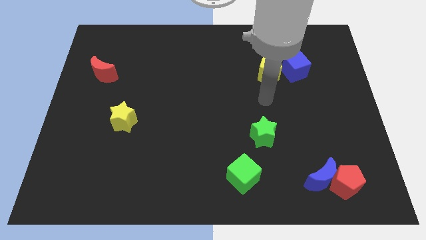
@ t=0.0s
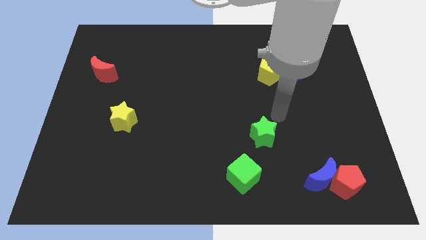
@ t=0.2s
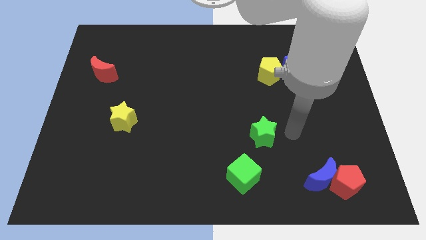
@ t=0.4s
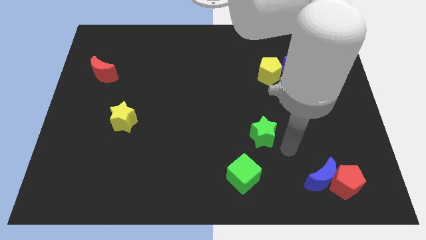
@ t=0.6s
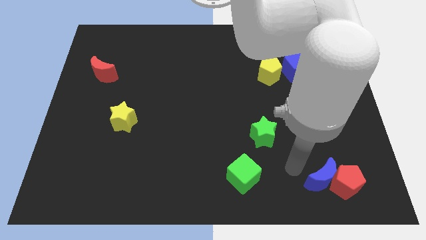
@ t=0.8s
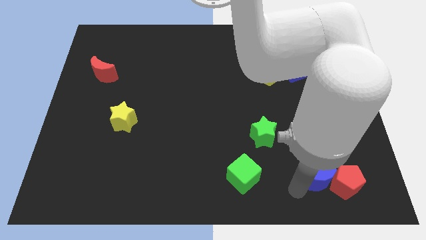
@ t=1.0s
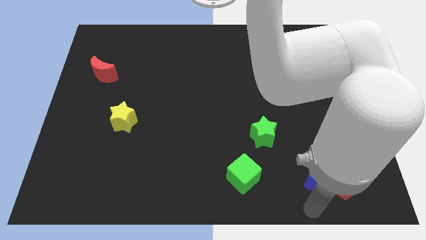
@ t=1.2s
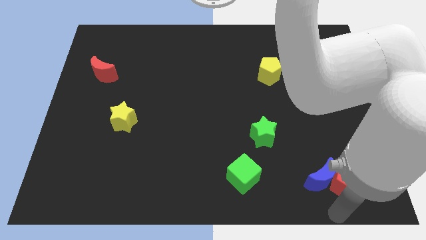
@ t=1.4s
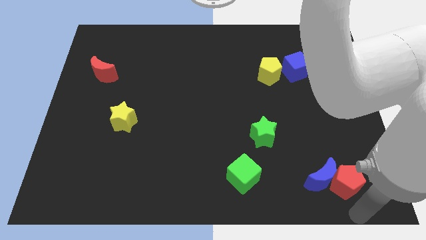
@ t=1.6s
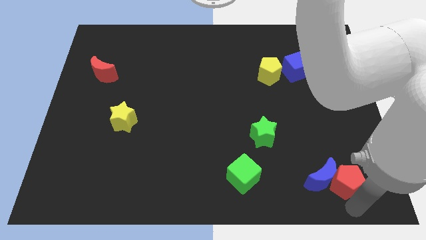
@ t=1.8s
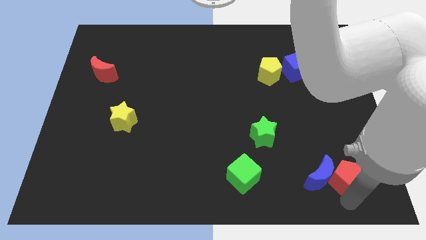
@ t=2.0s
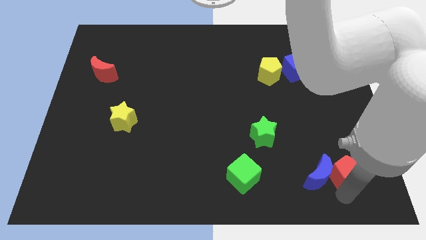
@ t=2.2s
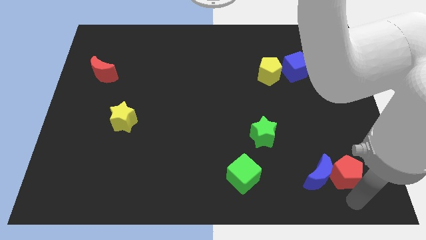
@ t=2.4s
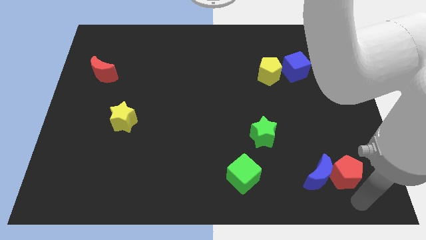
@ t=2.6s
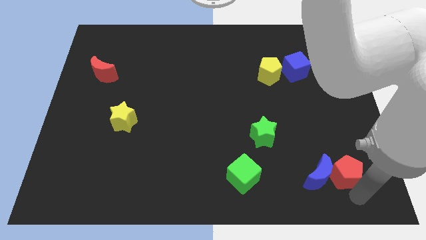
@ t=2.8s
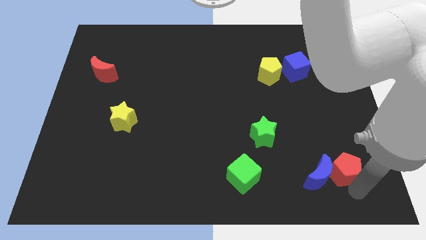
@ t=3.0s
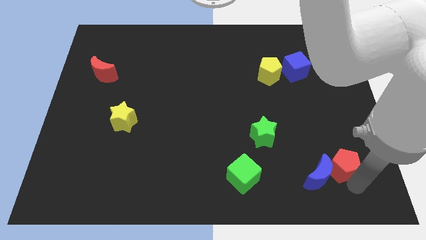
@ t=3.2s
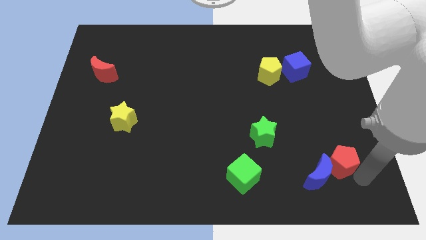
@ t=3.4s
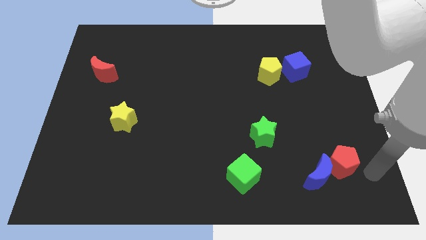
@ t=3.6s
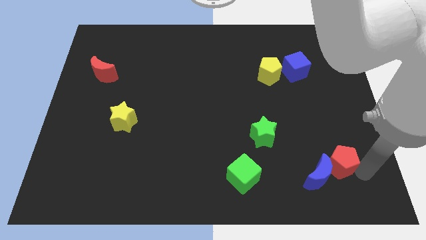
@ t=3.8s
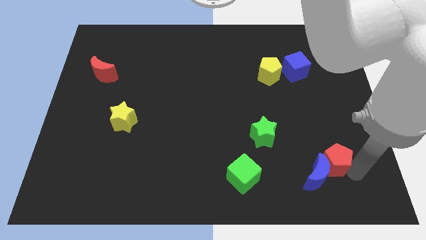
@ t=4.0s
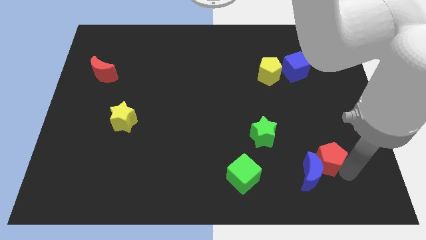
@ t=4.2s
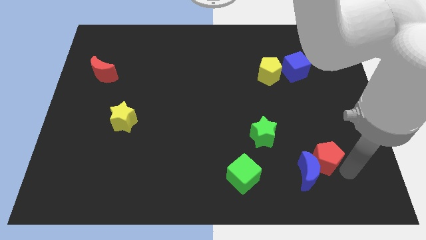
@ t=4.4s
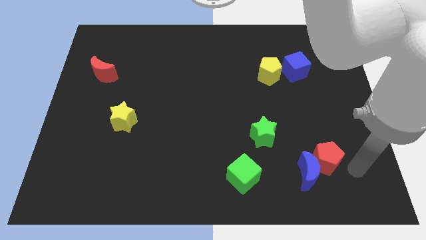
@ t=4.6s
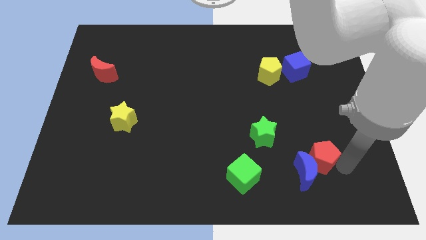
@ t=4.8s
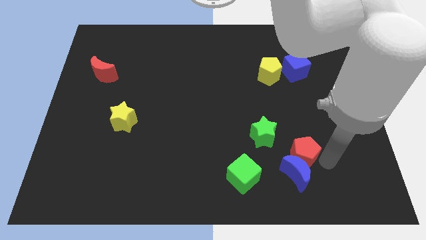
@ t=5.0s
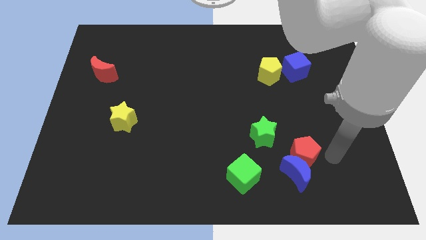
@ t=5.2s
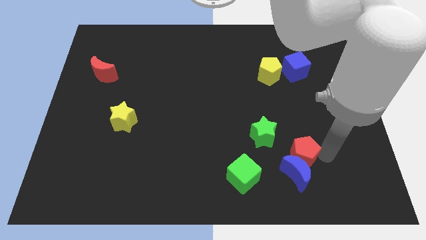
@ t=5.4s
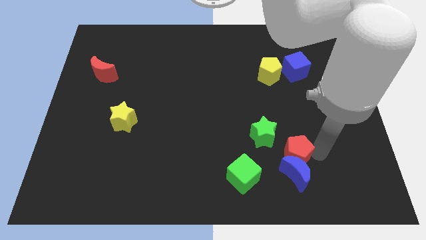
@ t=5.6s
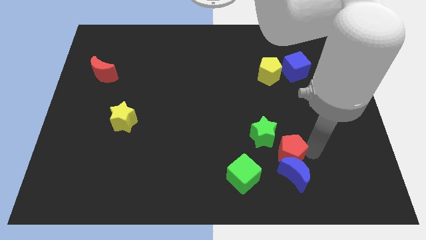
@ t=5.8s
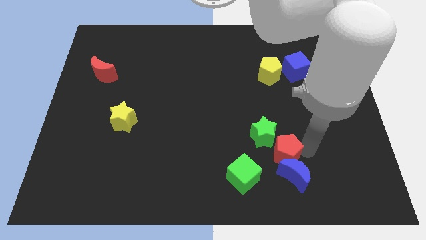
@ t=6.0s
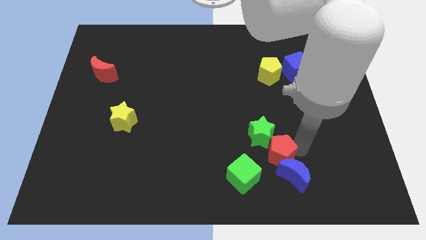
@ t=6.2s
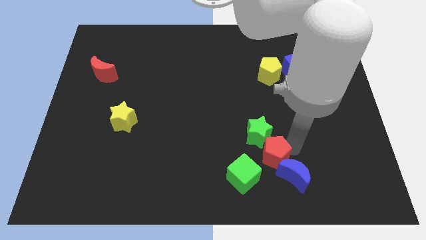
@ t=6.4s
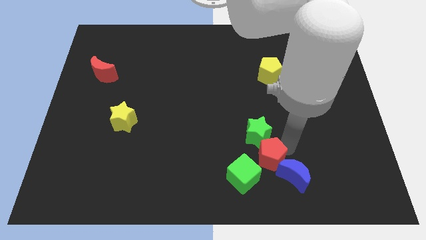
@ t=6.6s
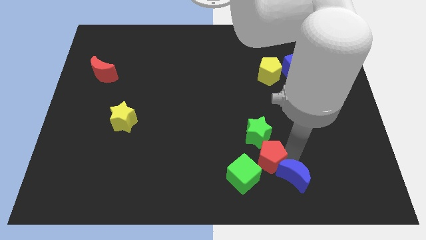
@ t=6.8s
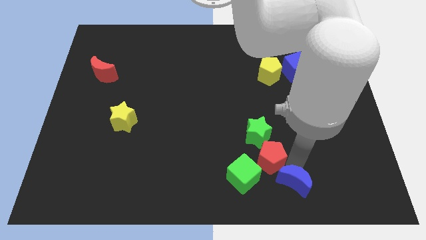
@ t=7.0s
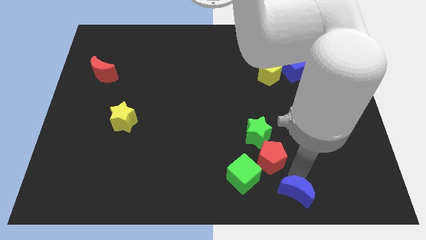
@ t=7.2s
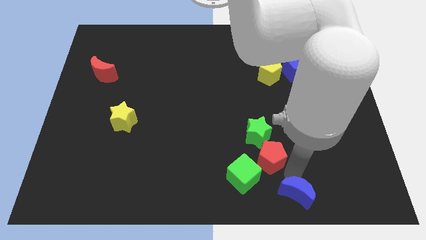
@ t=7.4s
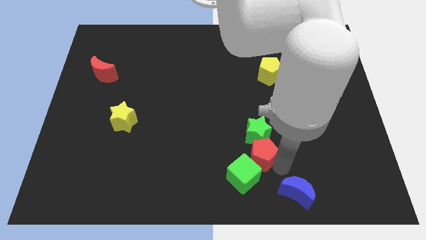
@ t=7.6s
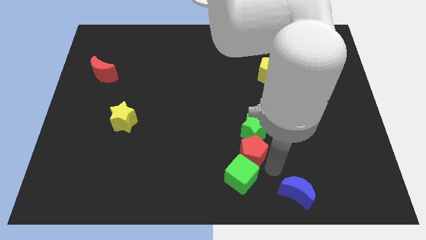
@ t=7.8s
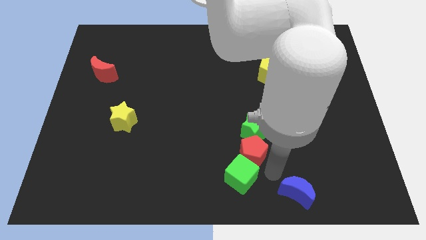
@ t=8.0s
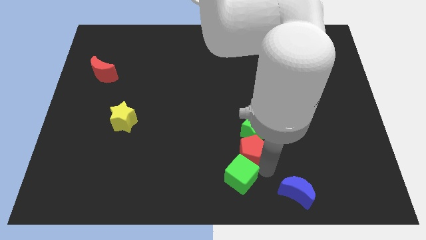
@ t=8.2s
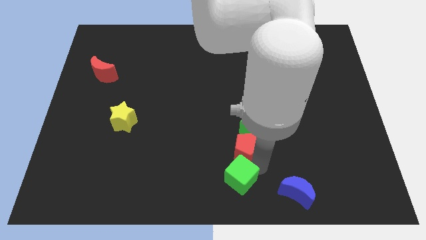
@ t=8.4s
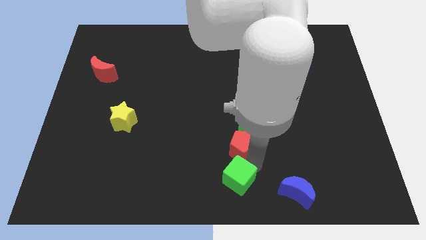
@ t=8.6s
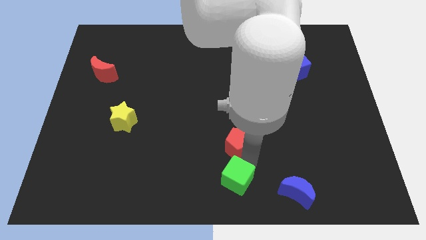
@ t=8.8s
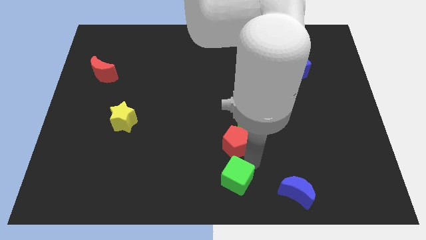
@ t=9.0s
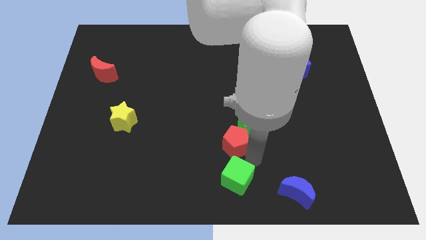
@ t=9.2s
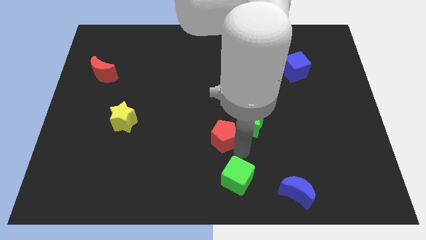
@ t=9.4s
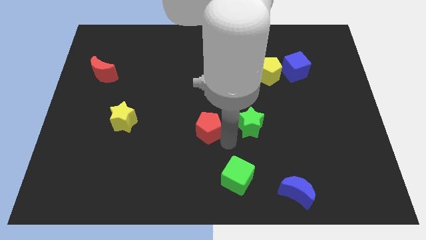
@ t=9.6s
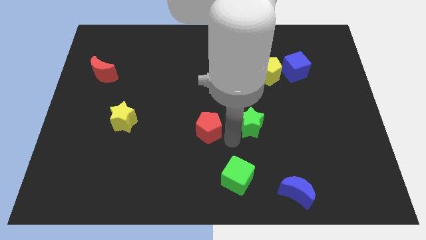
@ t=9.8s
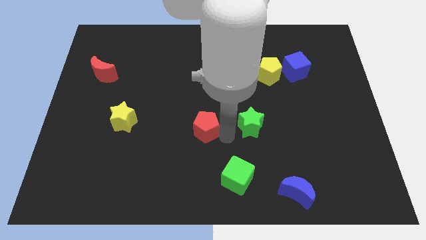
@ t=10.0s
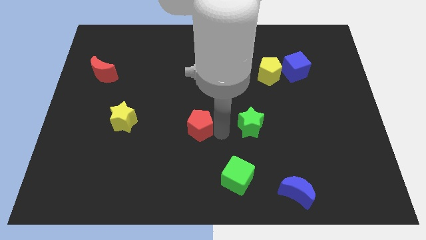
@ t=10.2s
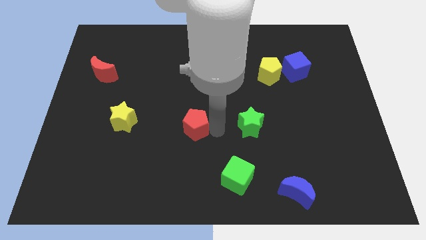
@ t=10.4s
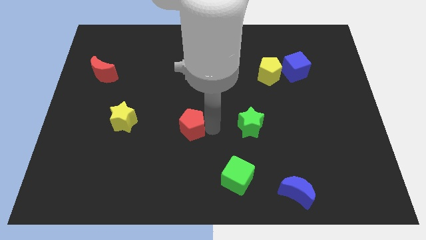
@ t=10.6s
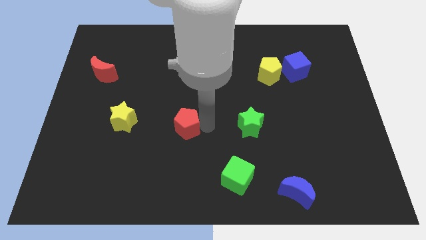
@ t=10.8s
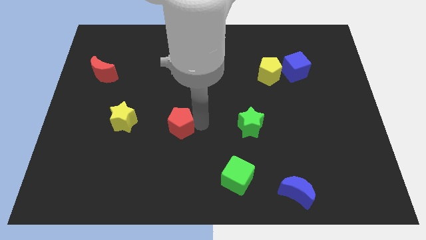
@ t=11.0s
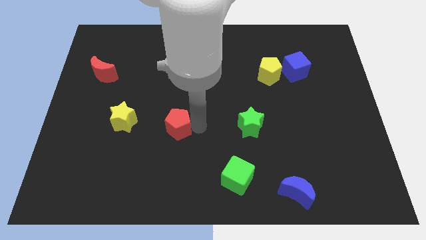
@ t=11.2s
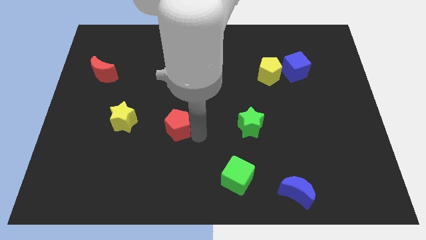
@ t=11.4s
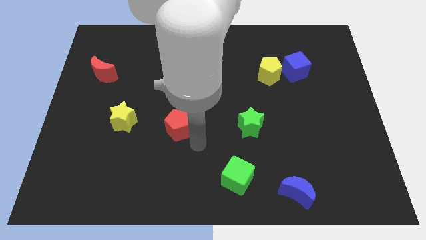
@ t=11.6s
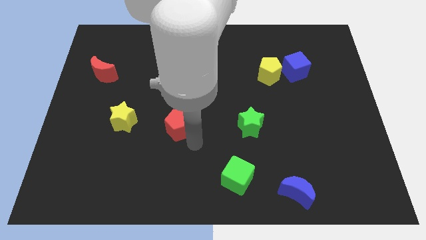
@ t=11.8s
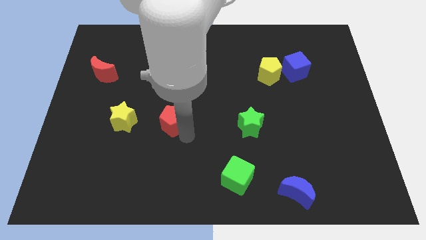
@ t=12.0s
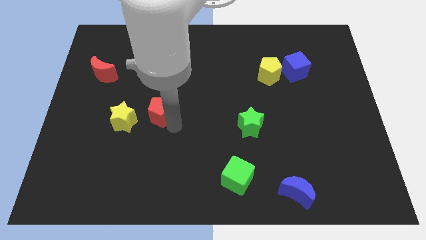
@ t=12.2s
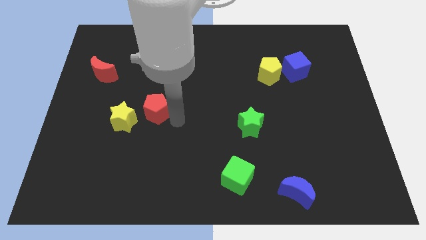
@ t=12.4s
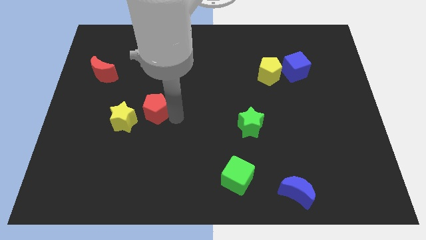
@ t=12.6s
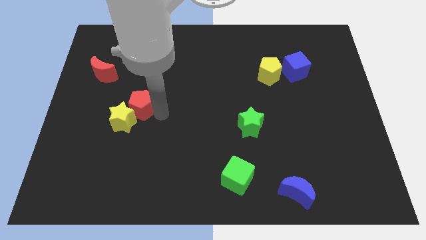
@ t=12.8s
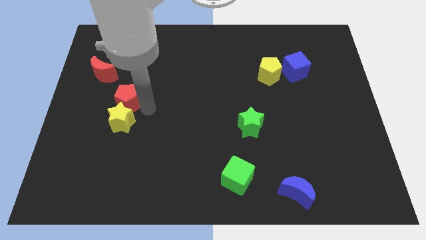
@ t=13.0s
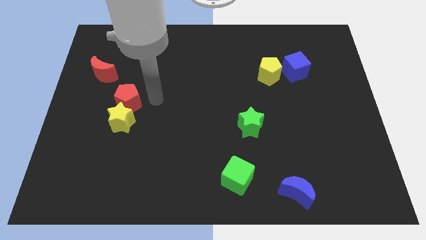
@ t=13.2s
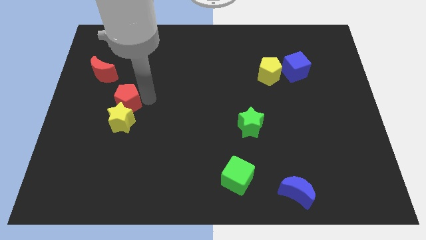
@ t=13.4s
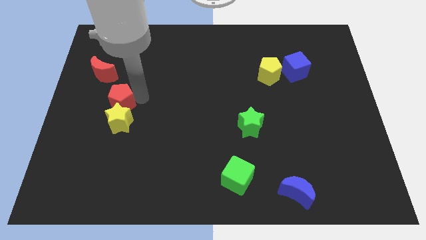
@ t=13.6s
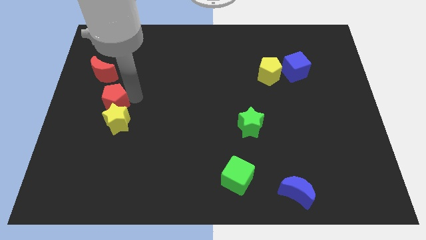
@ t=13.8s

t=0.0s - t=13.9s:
slide the red pentagon below the red moon

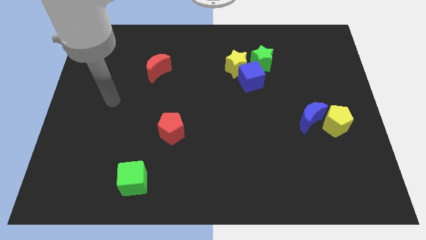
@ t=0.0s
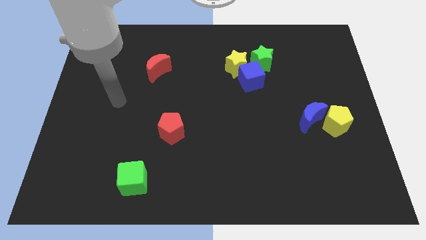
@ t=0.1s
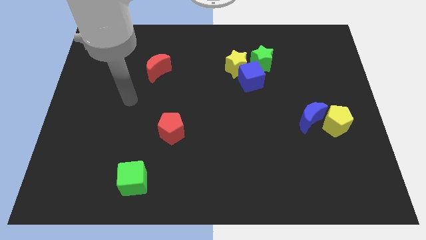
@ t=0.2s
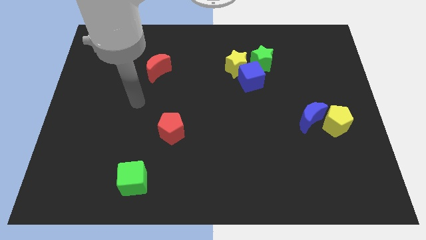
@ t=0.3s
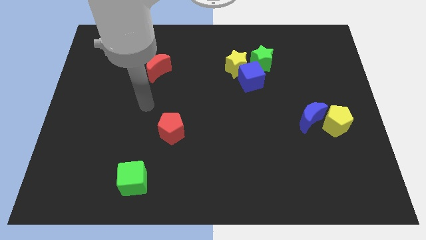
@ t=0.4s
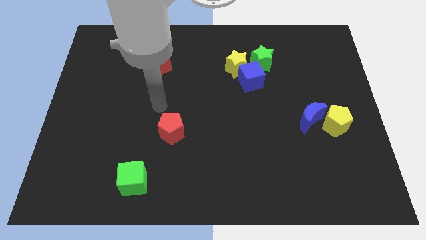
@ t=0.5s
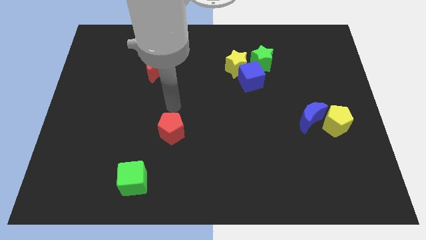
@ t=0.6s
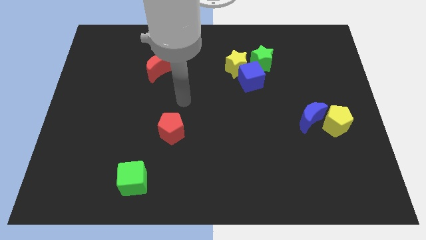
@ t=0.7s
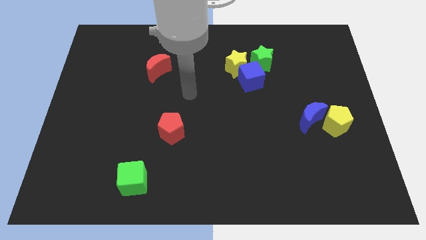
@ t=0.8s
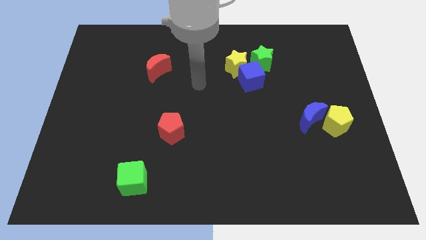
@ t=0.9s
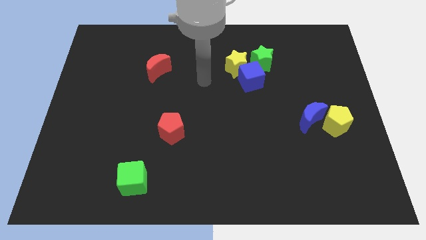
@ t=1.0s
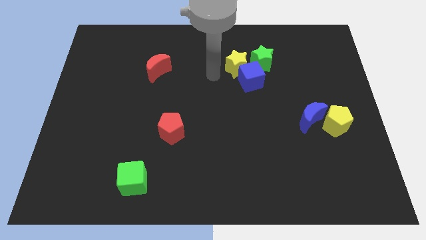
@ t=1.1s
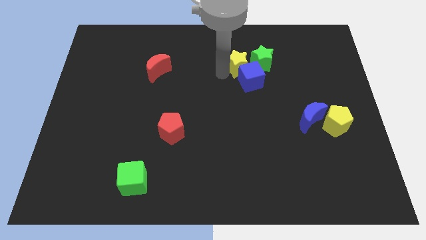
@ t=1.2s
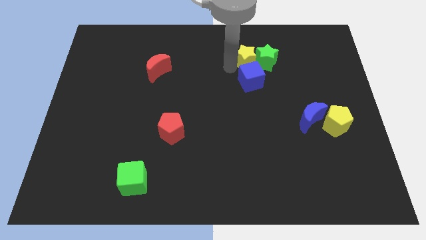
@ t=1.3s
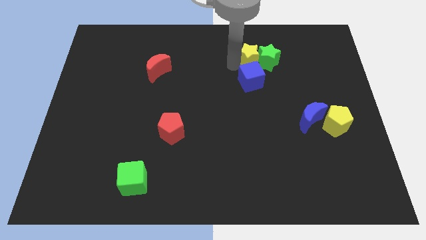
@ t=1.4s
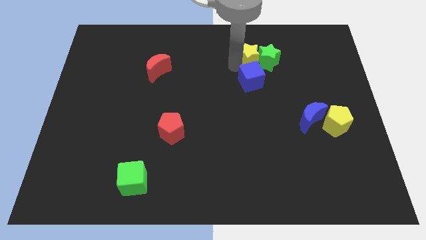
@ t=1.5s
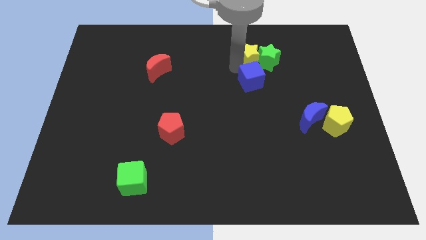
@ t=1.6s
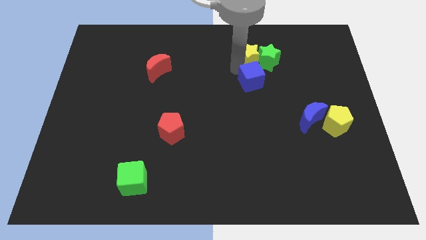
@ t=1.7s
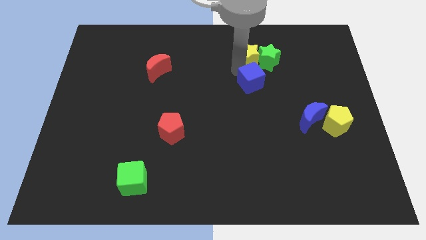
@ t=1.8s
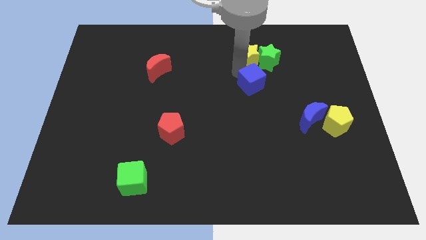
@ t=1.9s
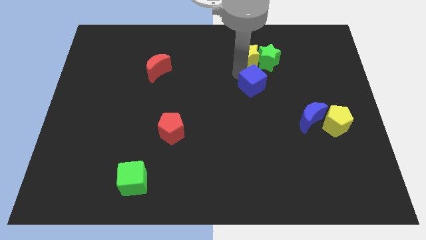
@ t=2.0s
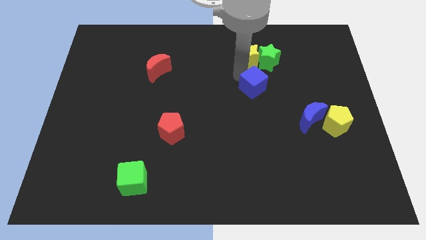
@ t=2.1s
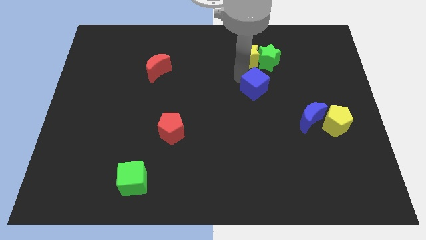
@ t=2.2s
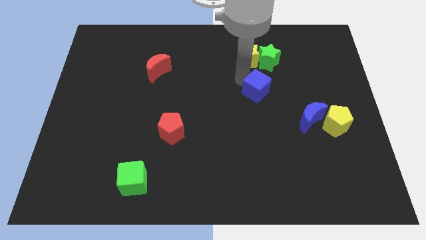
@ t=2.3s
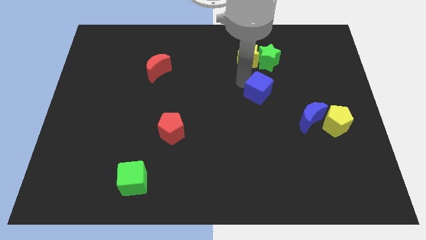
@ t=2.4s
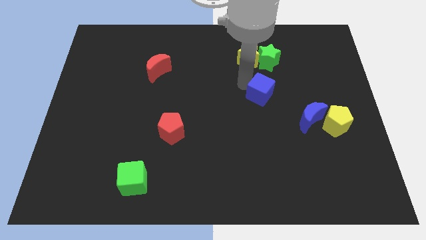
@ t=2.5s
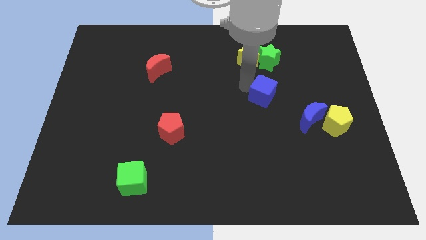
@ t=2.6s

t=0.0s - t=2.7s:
move the blue cube to the top left of the blue moon
